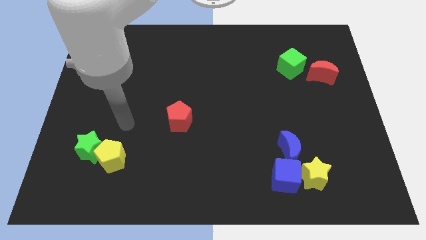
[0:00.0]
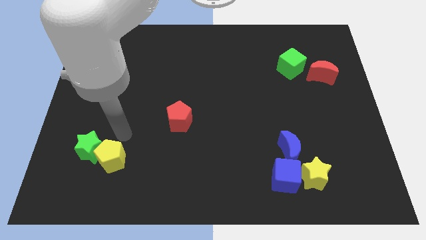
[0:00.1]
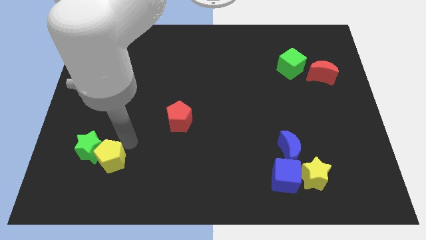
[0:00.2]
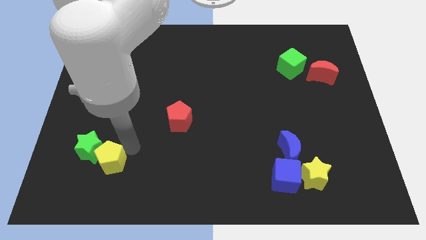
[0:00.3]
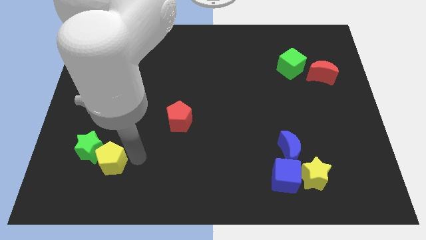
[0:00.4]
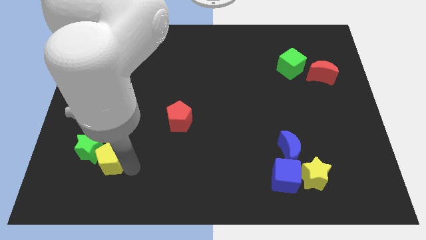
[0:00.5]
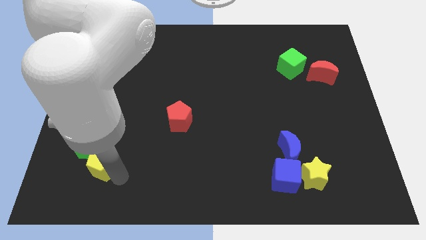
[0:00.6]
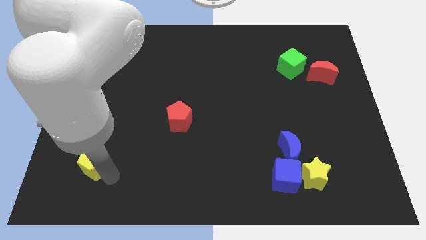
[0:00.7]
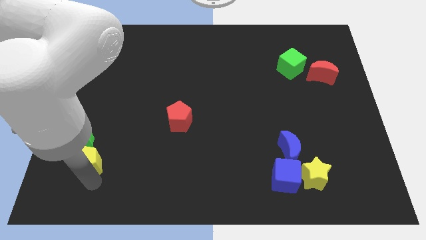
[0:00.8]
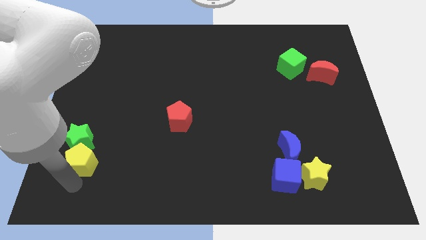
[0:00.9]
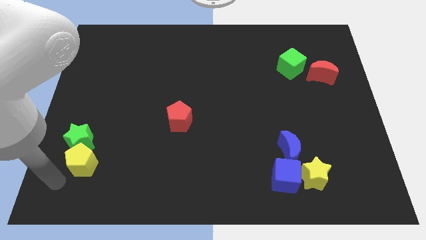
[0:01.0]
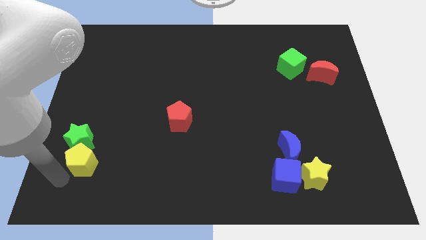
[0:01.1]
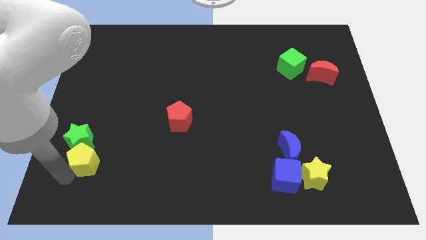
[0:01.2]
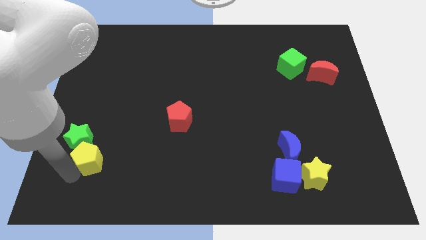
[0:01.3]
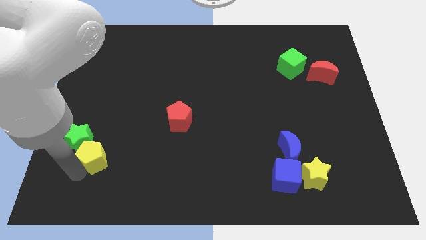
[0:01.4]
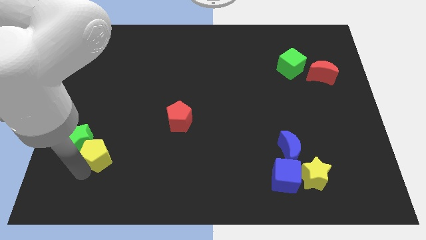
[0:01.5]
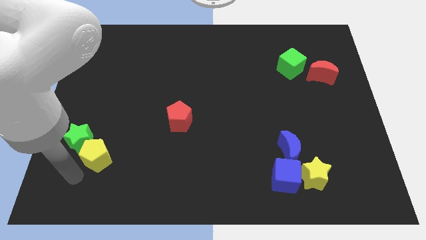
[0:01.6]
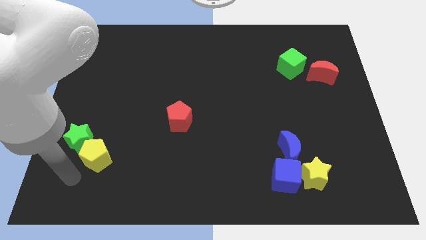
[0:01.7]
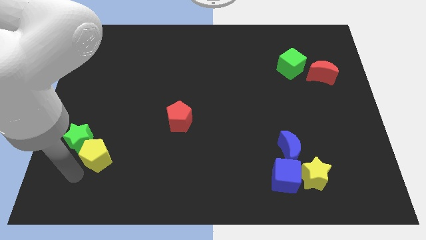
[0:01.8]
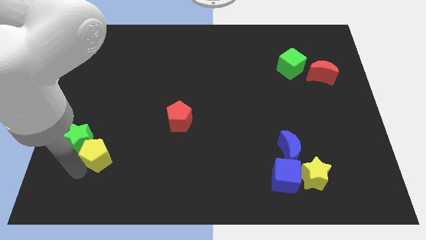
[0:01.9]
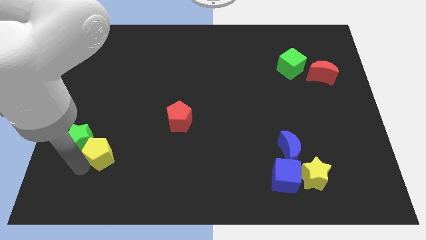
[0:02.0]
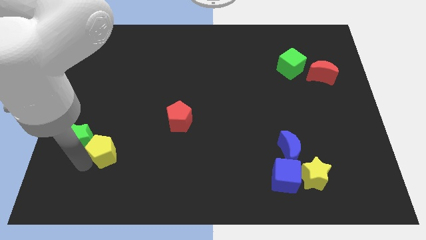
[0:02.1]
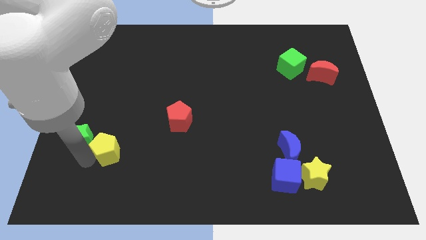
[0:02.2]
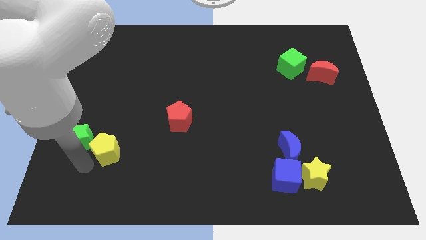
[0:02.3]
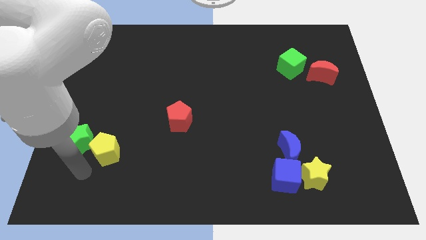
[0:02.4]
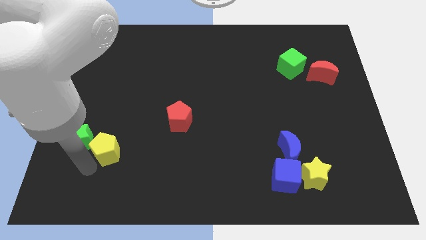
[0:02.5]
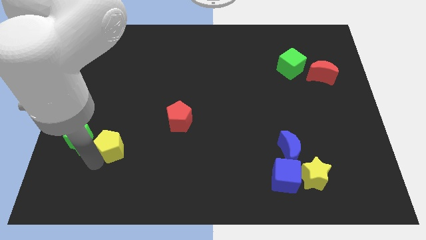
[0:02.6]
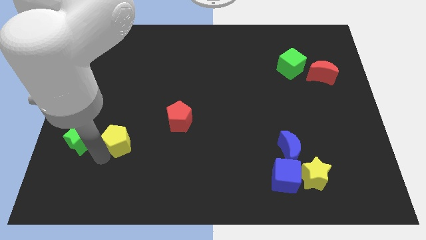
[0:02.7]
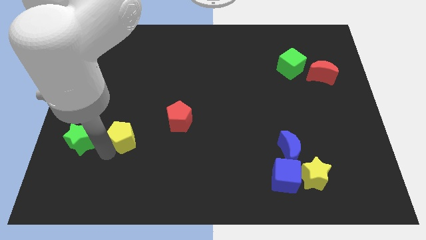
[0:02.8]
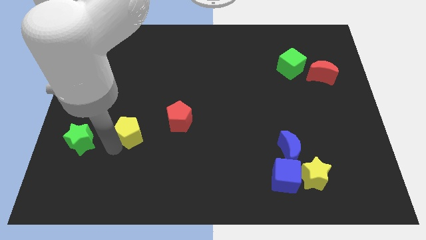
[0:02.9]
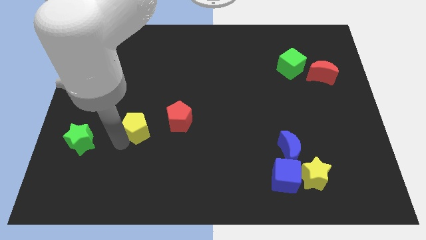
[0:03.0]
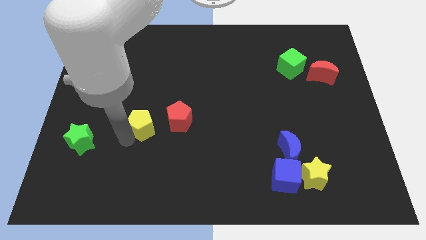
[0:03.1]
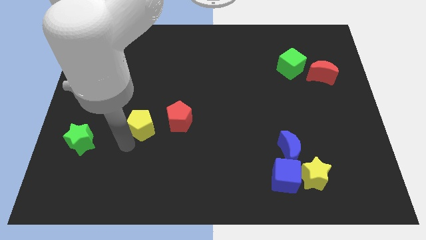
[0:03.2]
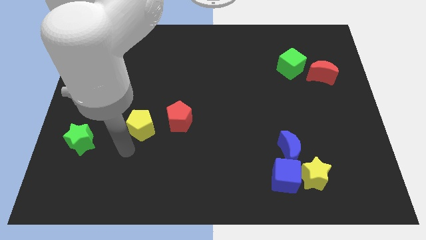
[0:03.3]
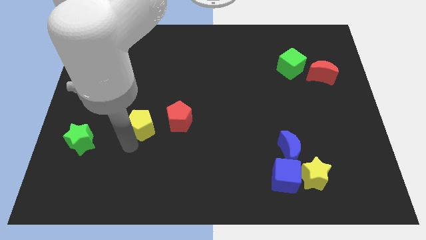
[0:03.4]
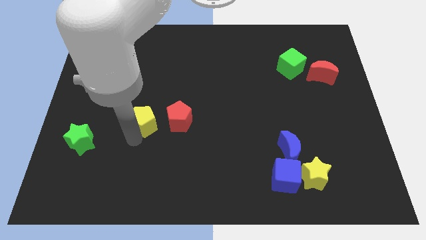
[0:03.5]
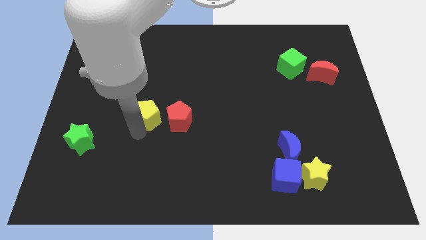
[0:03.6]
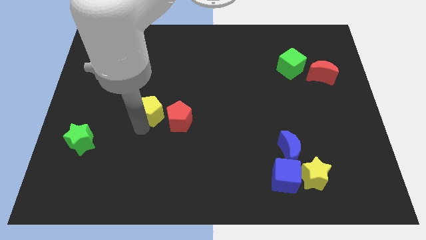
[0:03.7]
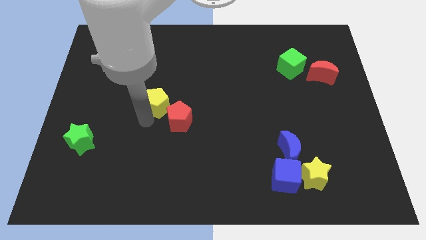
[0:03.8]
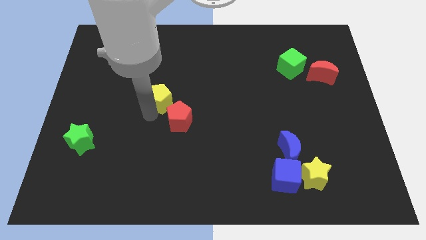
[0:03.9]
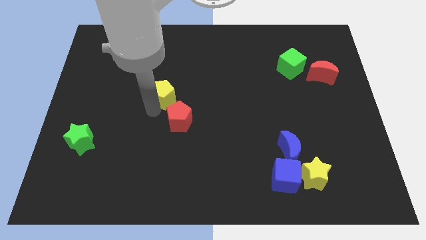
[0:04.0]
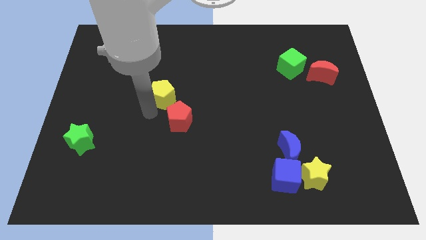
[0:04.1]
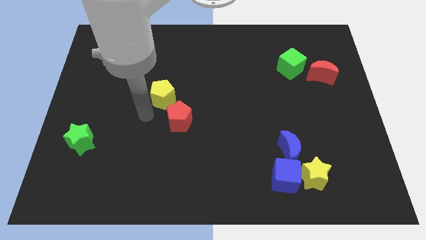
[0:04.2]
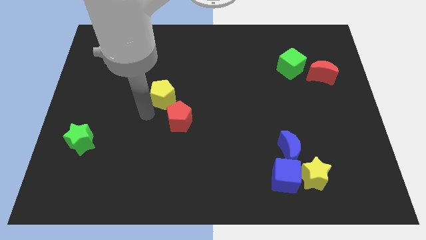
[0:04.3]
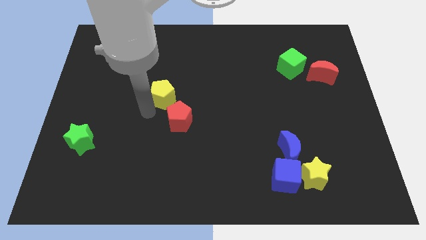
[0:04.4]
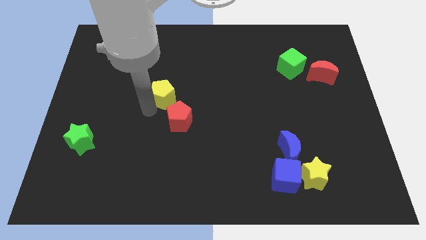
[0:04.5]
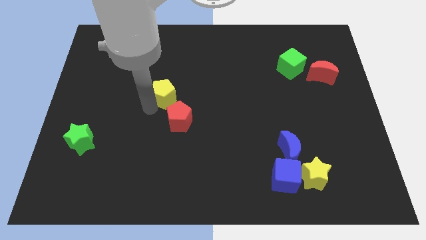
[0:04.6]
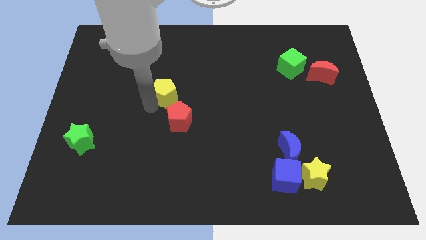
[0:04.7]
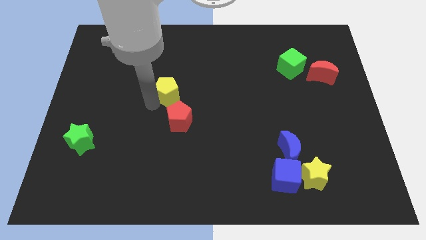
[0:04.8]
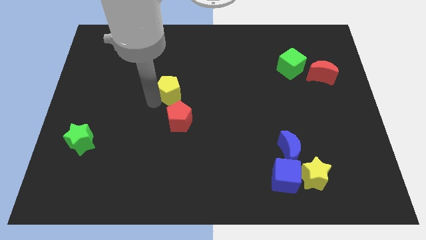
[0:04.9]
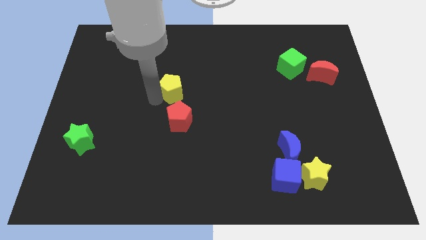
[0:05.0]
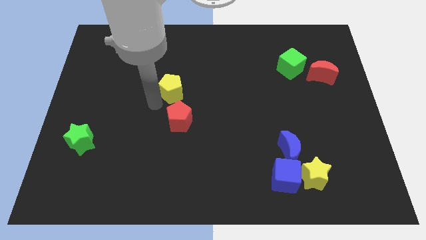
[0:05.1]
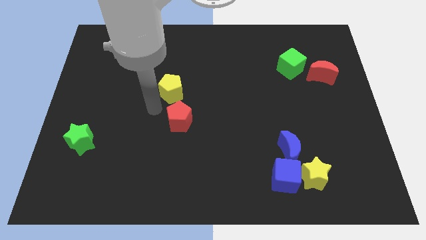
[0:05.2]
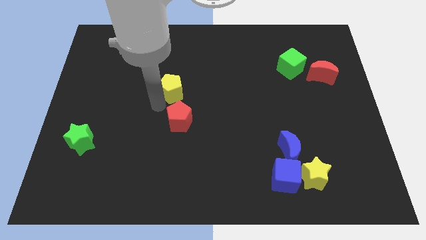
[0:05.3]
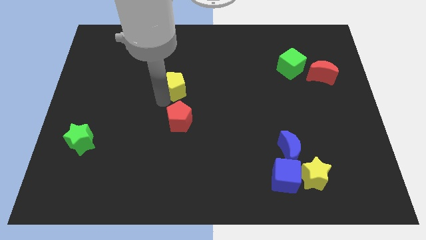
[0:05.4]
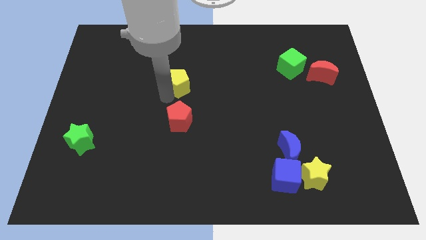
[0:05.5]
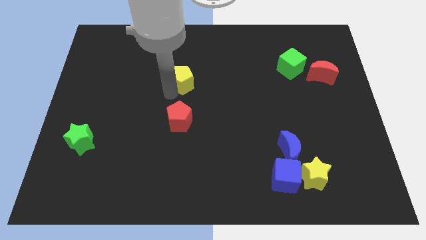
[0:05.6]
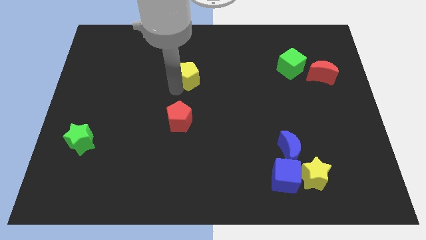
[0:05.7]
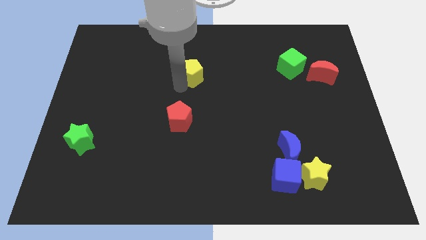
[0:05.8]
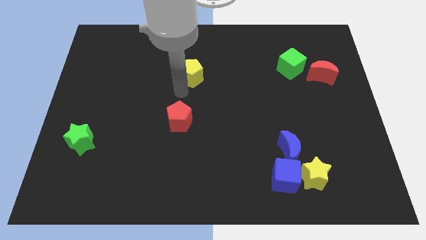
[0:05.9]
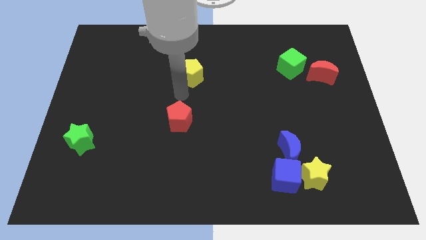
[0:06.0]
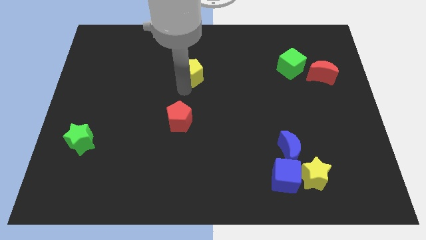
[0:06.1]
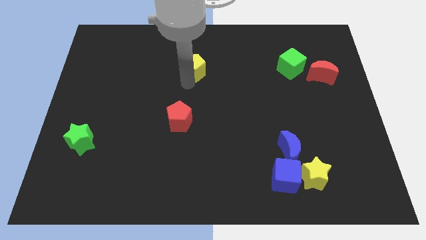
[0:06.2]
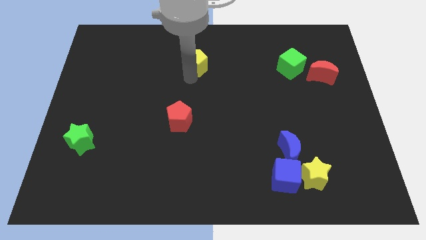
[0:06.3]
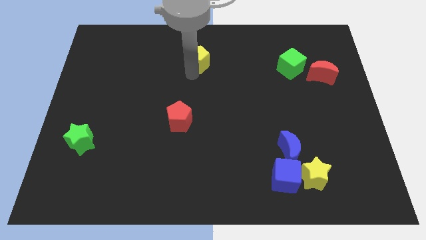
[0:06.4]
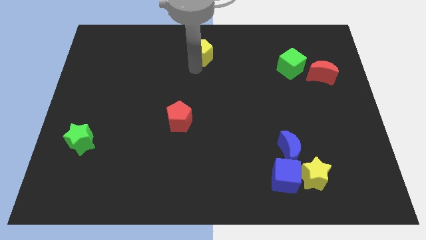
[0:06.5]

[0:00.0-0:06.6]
slide the yellow pentagon to the top side
